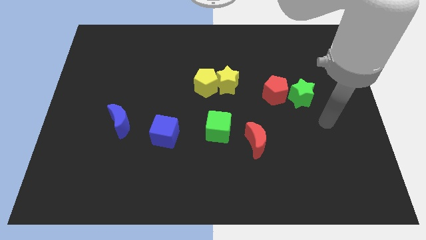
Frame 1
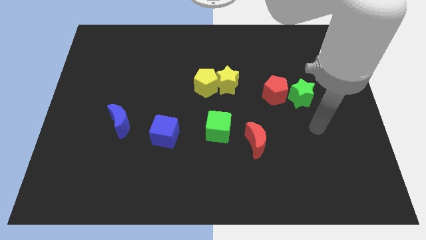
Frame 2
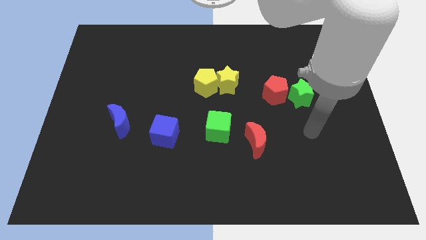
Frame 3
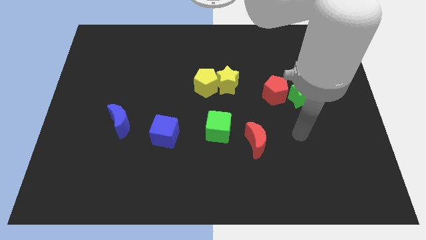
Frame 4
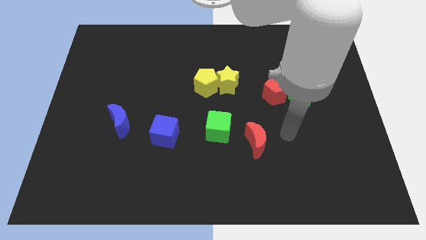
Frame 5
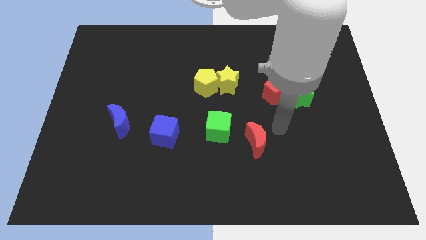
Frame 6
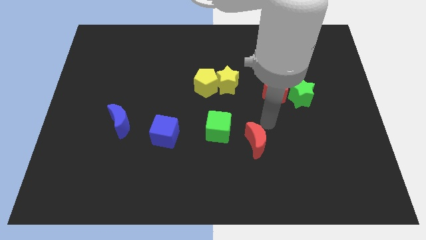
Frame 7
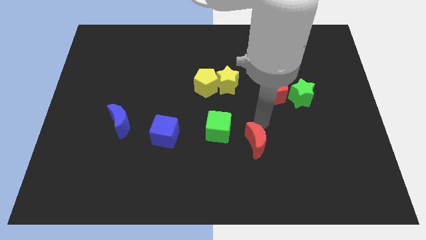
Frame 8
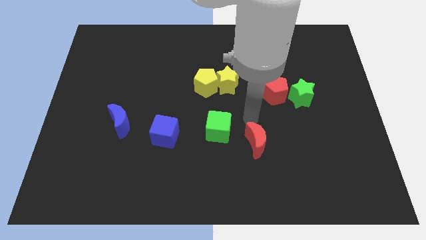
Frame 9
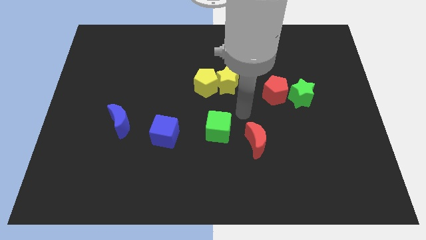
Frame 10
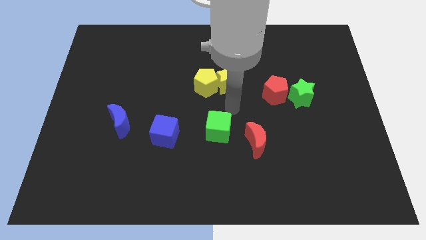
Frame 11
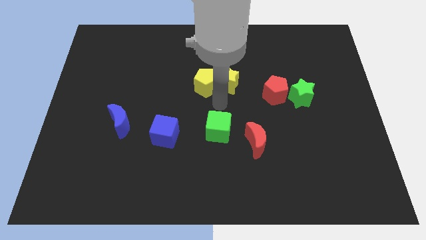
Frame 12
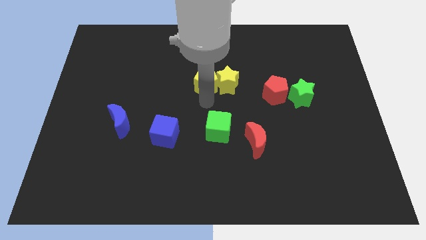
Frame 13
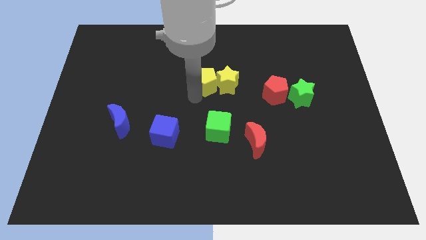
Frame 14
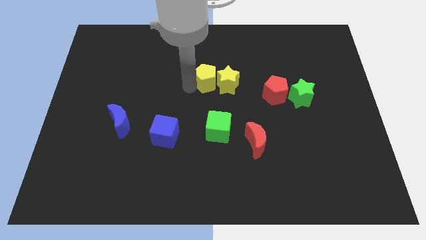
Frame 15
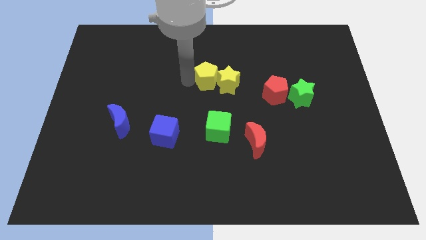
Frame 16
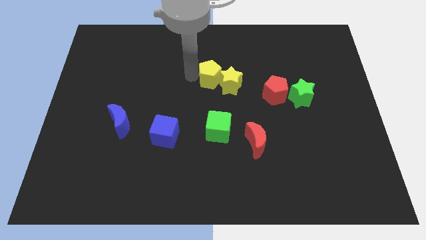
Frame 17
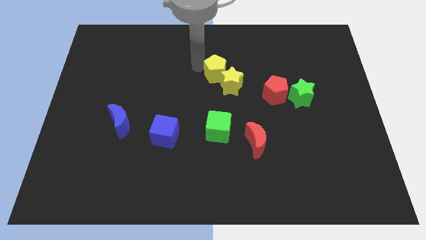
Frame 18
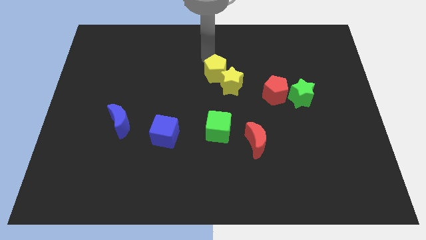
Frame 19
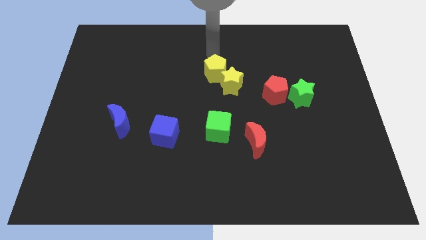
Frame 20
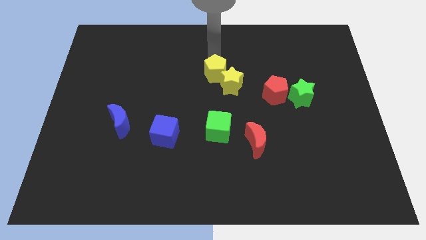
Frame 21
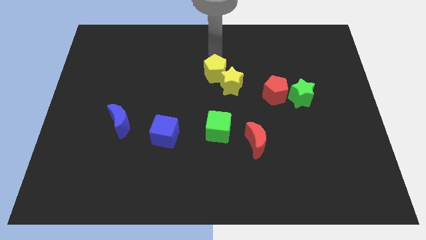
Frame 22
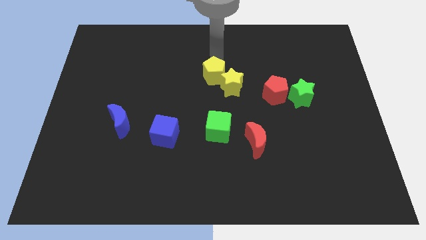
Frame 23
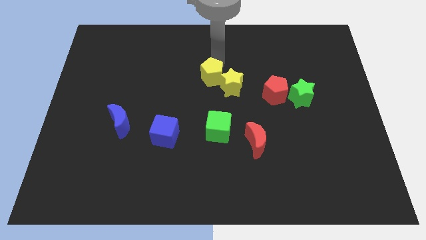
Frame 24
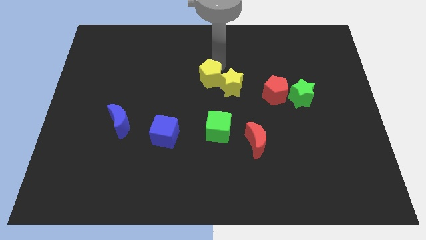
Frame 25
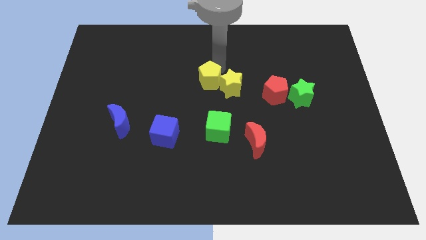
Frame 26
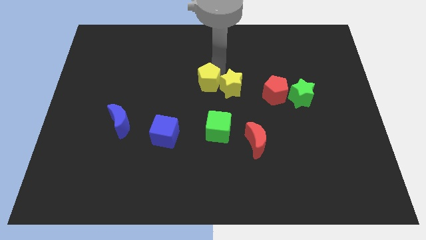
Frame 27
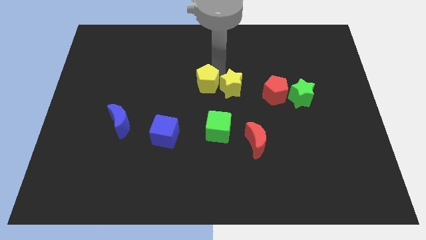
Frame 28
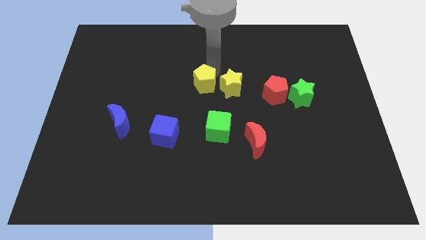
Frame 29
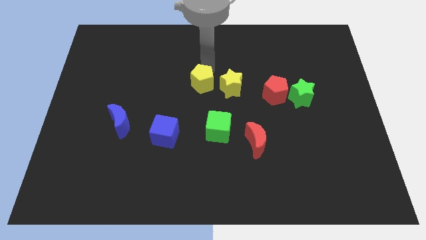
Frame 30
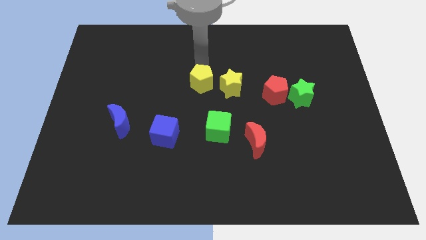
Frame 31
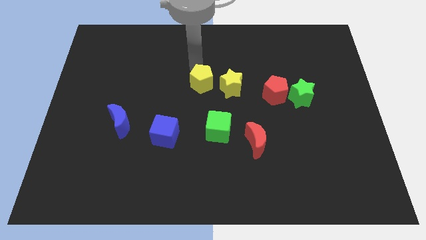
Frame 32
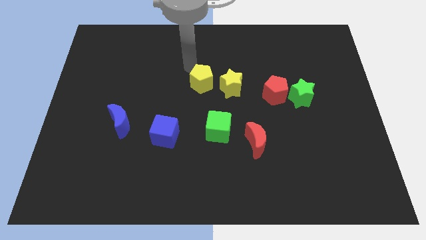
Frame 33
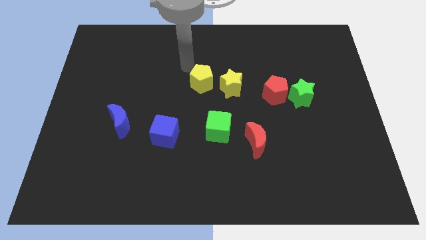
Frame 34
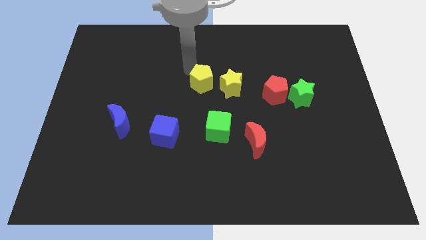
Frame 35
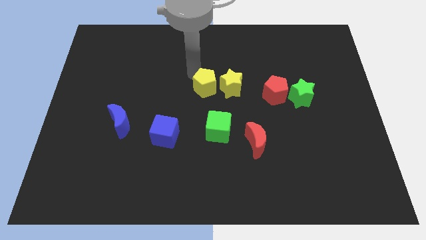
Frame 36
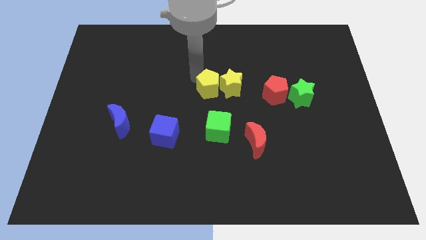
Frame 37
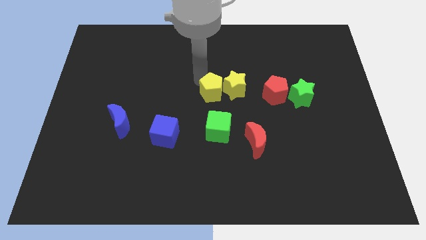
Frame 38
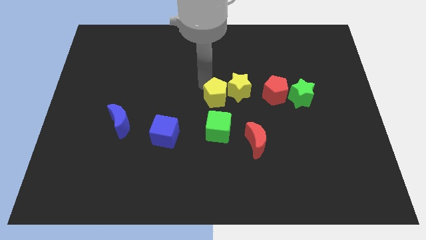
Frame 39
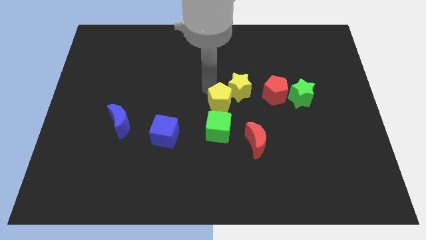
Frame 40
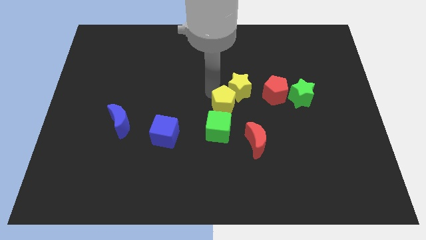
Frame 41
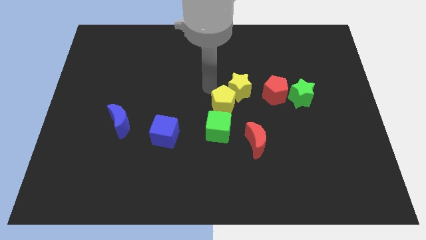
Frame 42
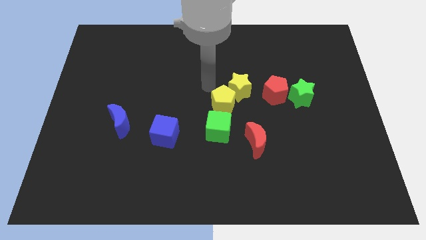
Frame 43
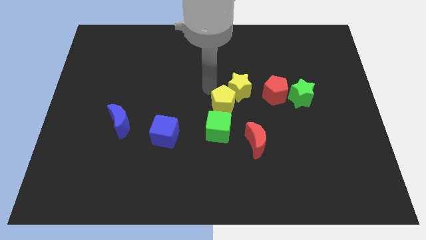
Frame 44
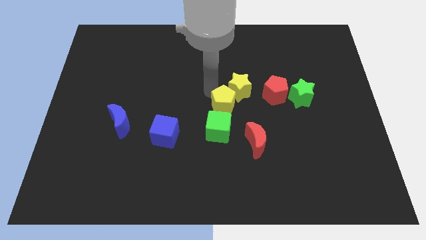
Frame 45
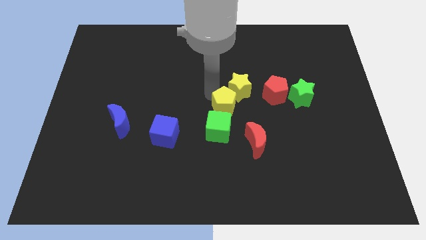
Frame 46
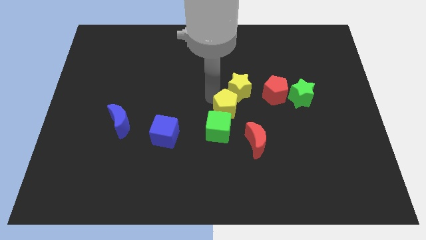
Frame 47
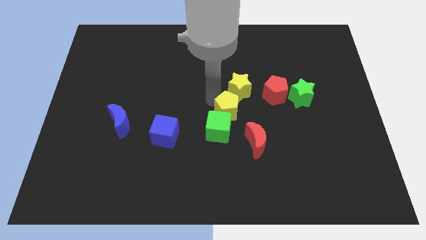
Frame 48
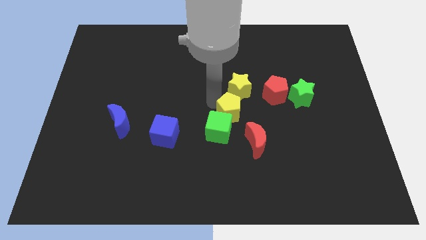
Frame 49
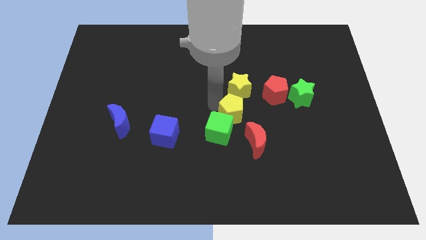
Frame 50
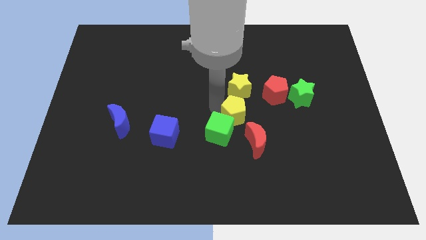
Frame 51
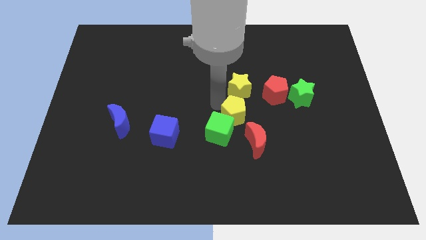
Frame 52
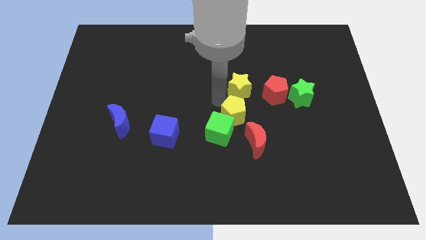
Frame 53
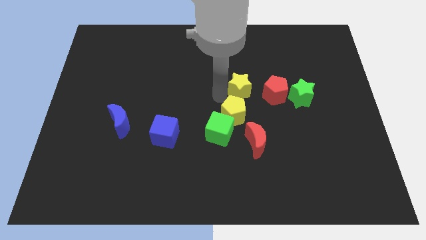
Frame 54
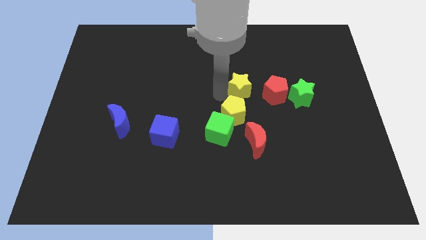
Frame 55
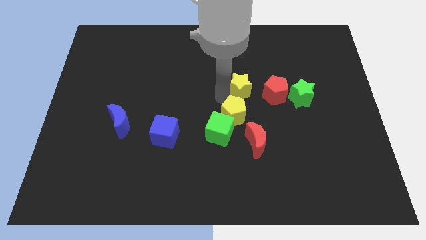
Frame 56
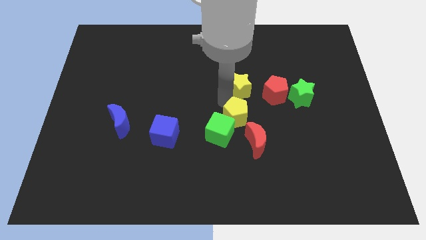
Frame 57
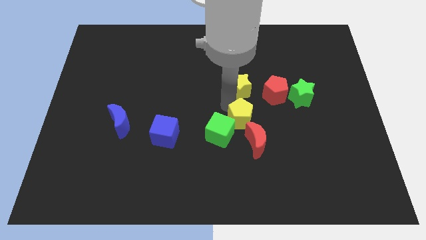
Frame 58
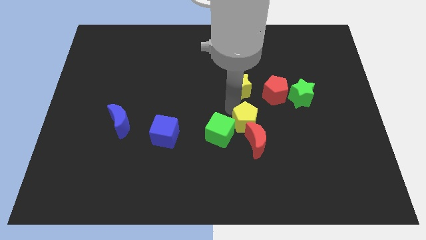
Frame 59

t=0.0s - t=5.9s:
put the yellow pentagon next to the red moon

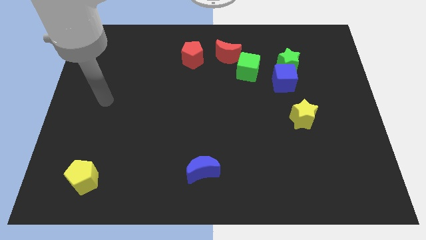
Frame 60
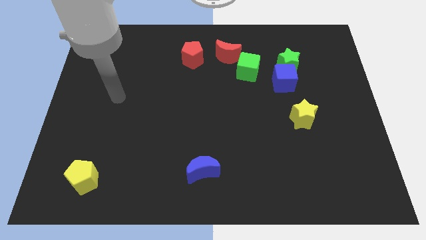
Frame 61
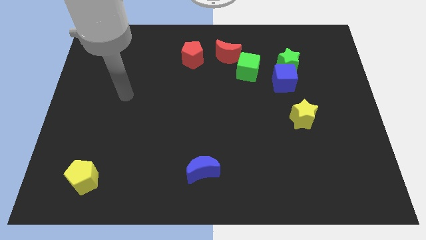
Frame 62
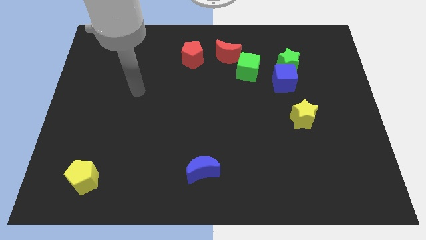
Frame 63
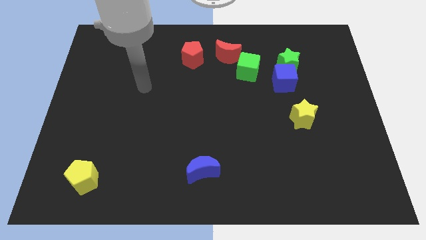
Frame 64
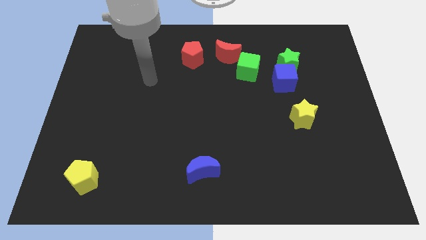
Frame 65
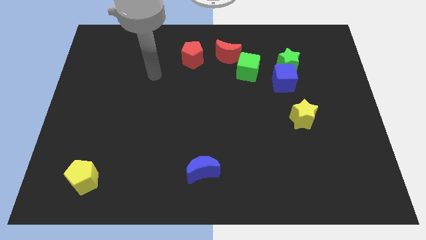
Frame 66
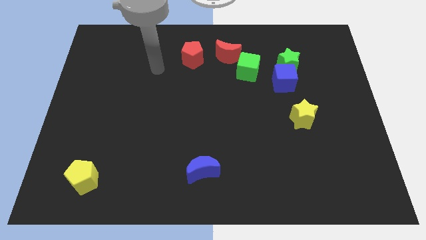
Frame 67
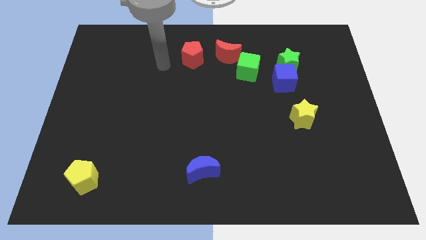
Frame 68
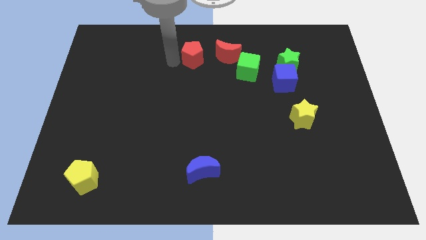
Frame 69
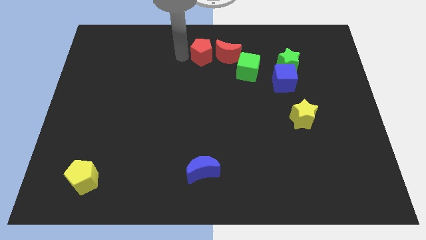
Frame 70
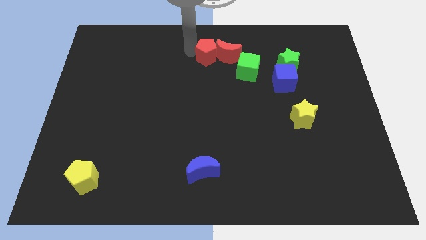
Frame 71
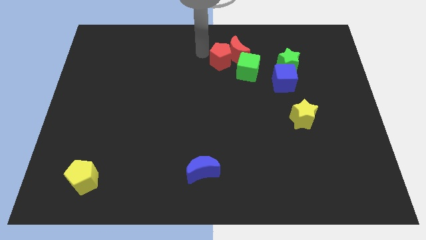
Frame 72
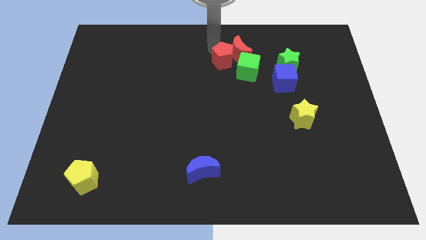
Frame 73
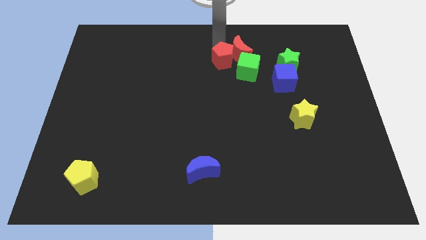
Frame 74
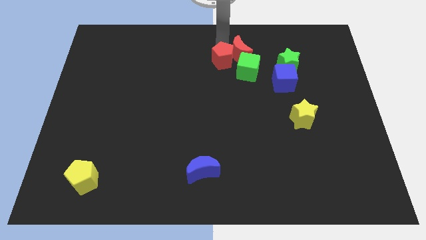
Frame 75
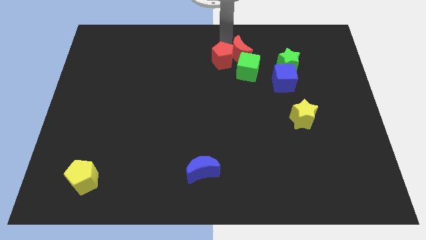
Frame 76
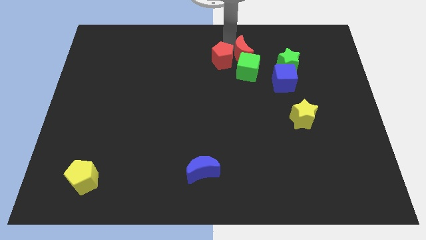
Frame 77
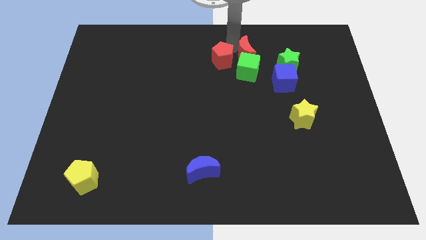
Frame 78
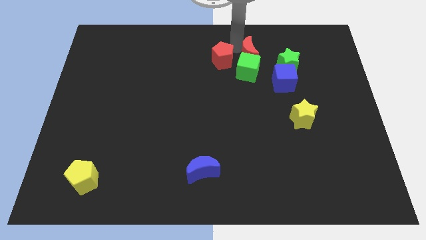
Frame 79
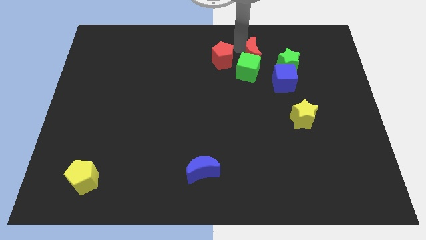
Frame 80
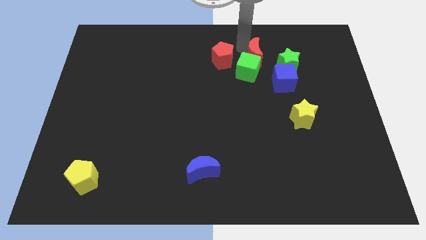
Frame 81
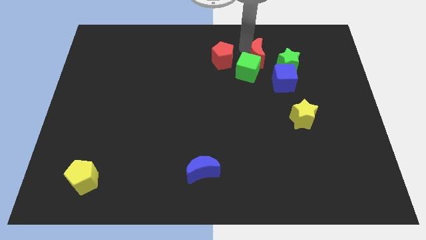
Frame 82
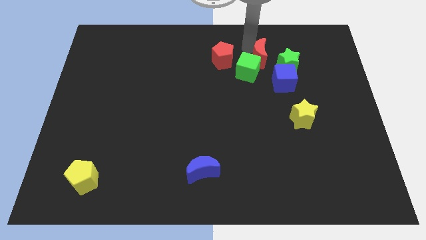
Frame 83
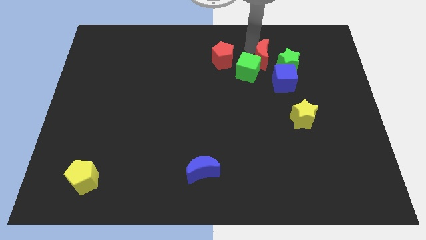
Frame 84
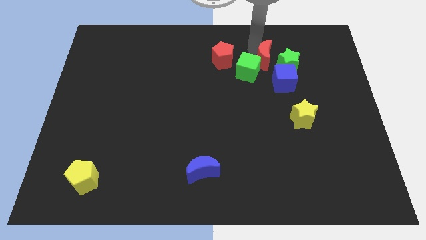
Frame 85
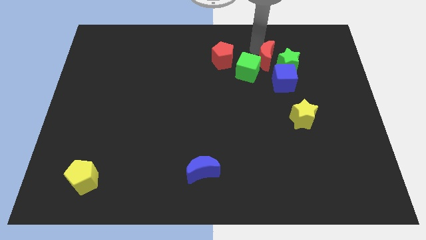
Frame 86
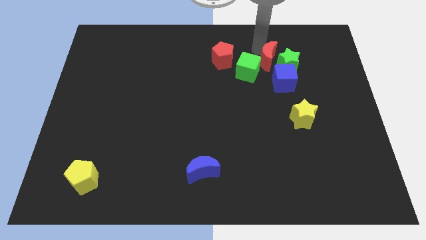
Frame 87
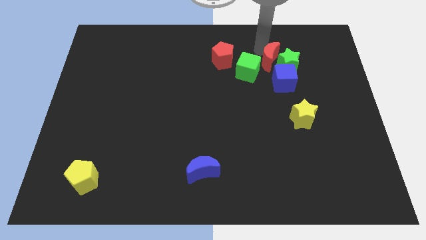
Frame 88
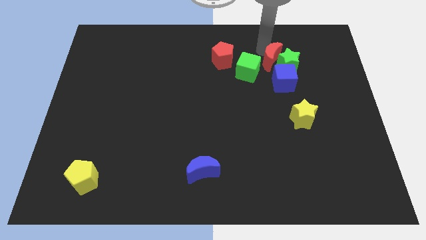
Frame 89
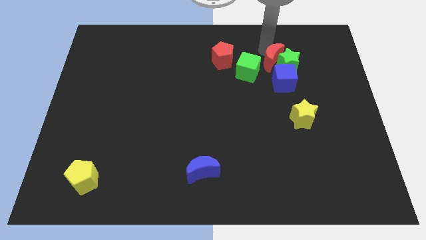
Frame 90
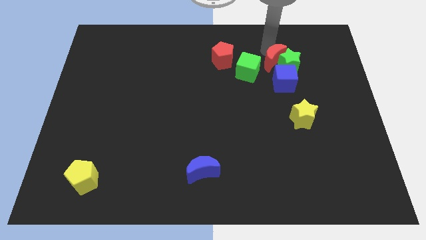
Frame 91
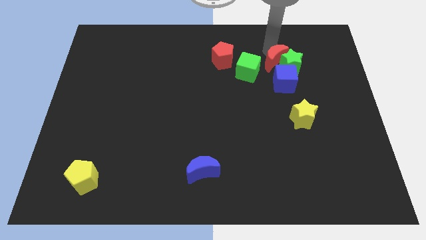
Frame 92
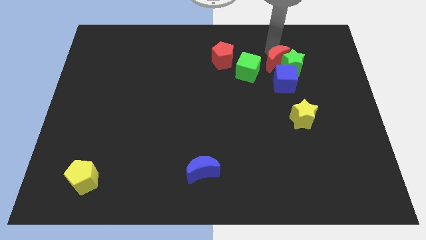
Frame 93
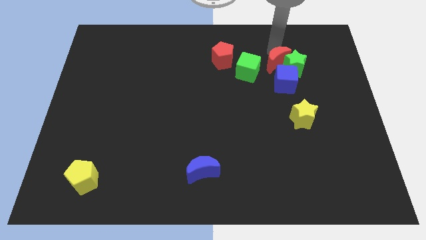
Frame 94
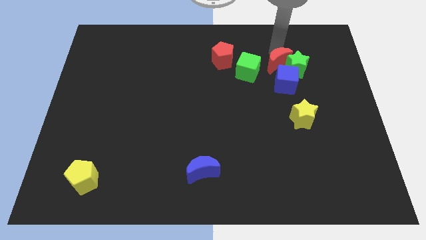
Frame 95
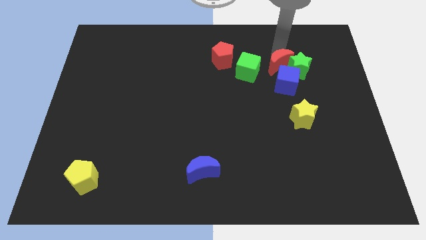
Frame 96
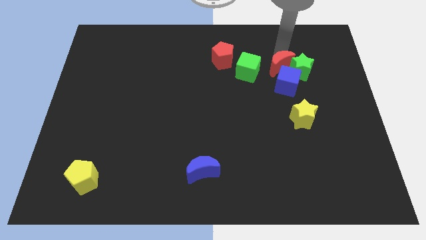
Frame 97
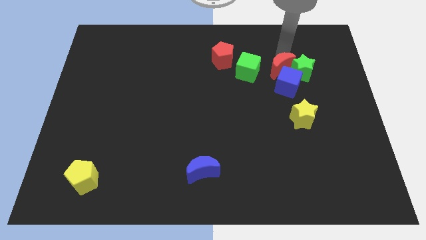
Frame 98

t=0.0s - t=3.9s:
push the red moon to the blue cube
